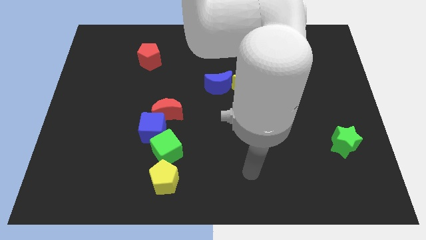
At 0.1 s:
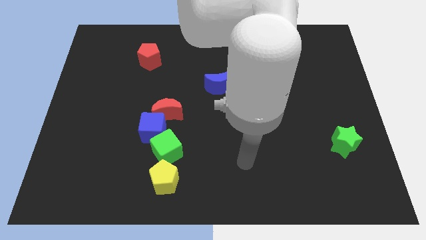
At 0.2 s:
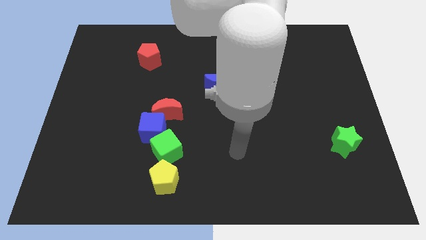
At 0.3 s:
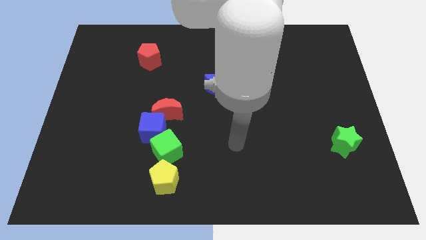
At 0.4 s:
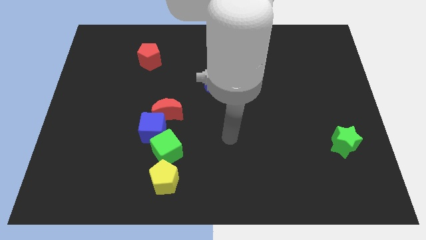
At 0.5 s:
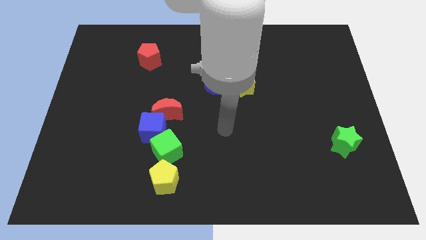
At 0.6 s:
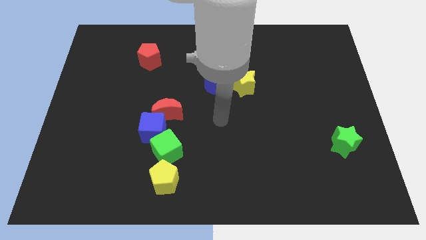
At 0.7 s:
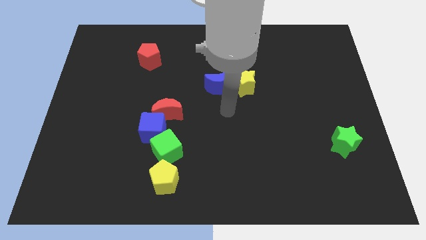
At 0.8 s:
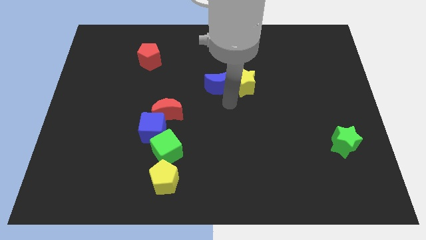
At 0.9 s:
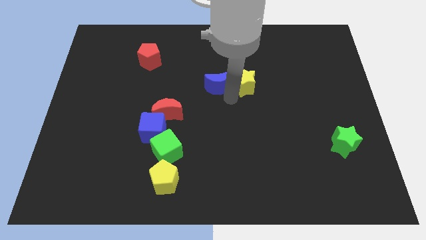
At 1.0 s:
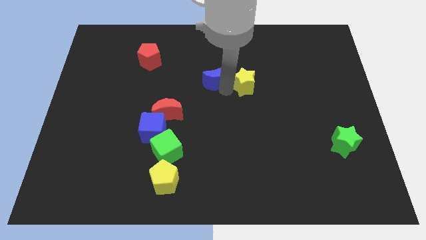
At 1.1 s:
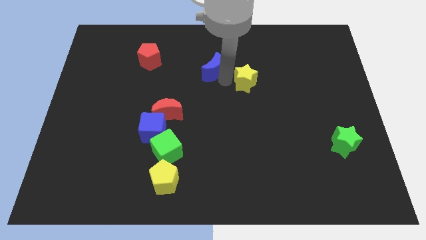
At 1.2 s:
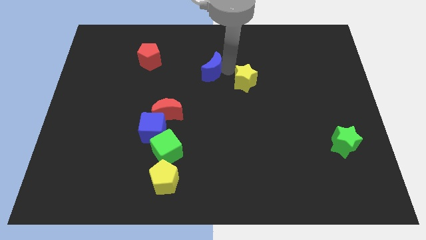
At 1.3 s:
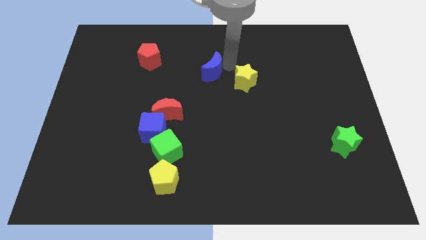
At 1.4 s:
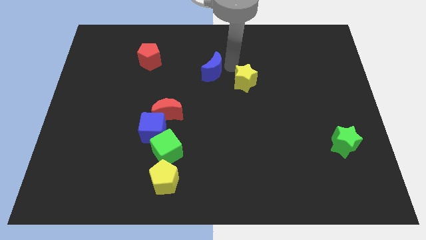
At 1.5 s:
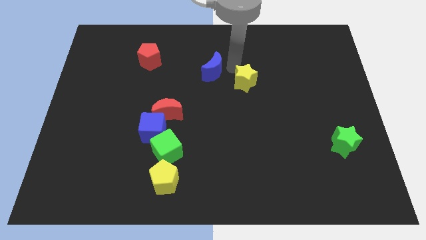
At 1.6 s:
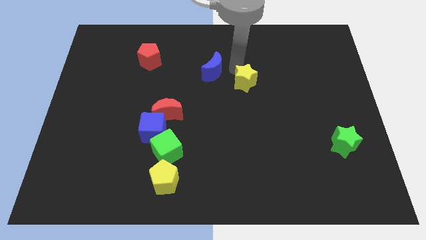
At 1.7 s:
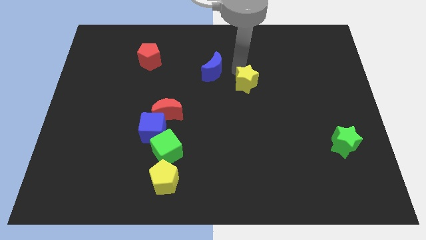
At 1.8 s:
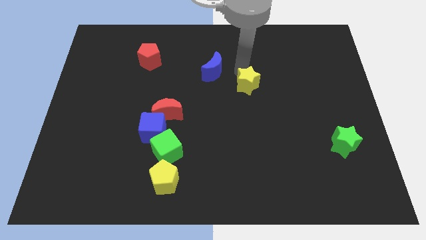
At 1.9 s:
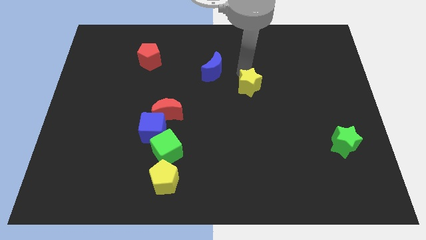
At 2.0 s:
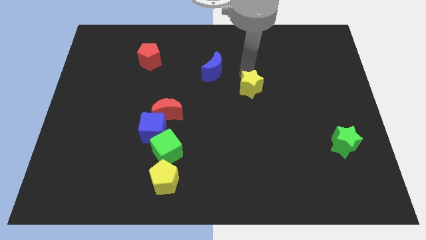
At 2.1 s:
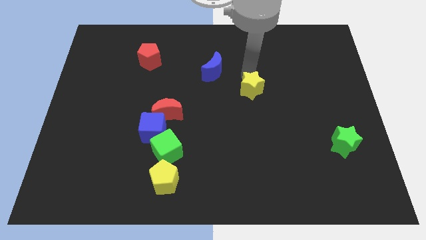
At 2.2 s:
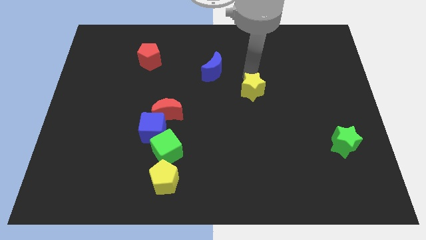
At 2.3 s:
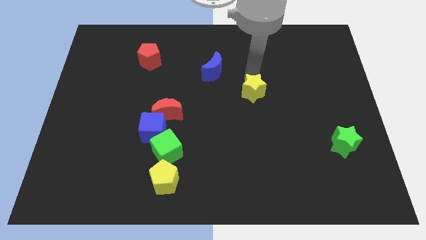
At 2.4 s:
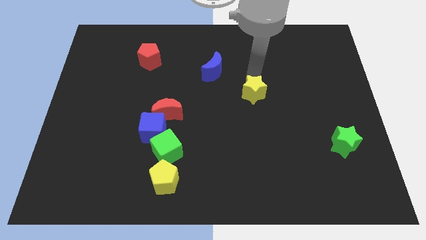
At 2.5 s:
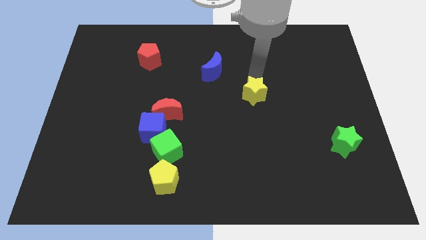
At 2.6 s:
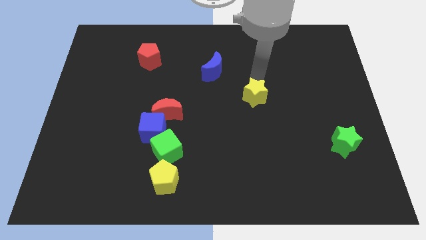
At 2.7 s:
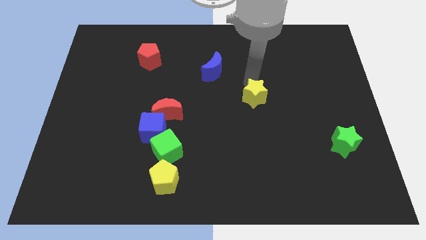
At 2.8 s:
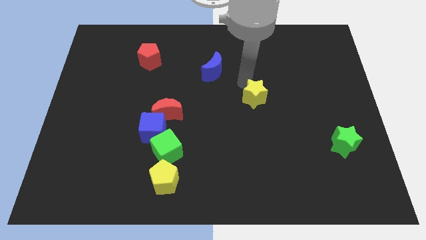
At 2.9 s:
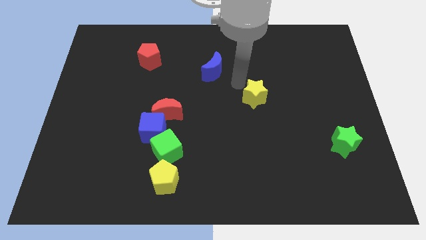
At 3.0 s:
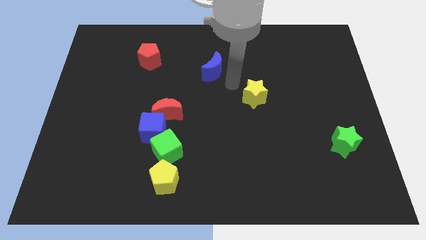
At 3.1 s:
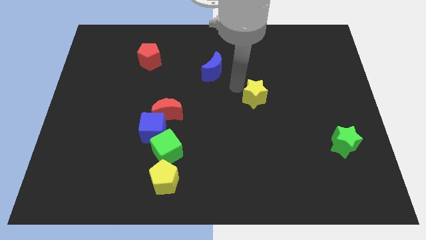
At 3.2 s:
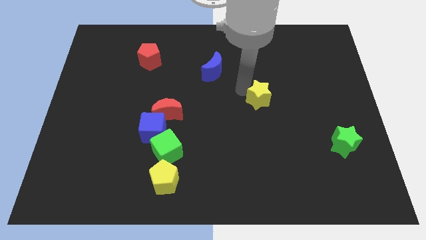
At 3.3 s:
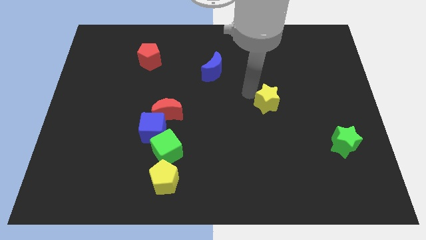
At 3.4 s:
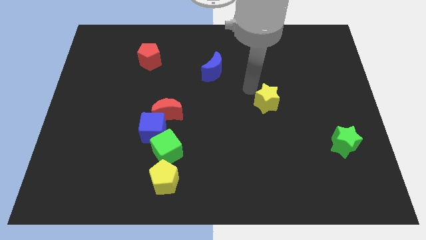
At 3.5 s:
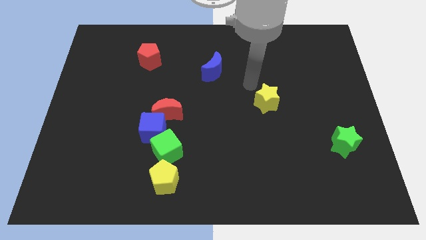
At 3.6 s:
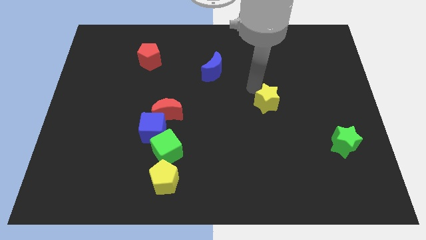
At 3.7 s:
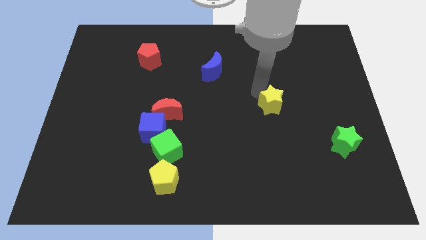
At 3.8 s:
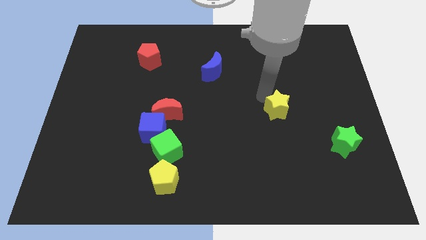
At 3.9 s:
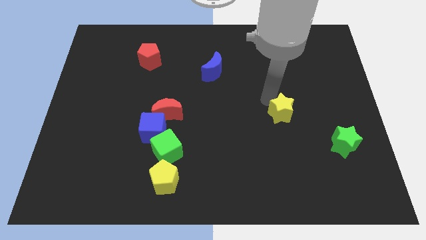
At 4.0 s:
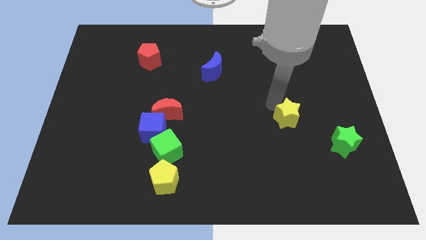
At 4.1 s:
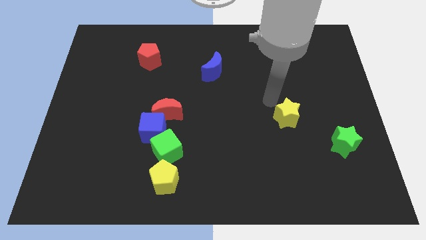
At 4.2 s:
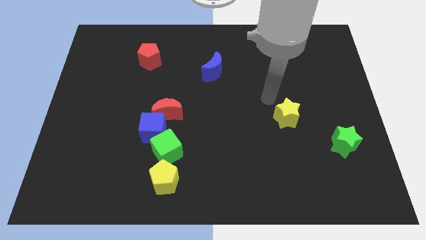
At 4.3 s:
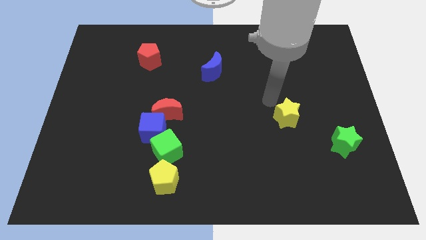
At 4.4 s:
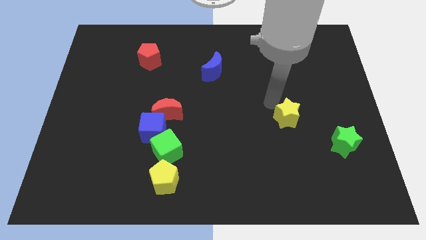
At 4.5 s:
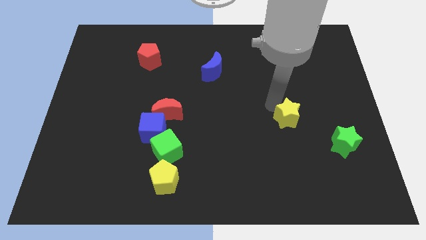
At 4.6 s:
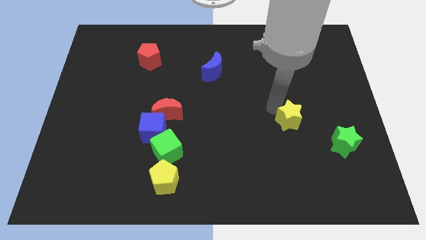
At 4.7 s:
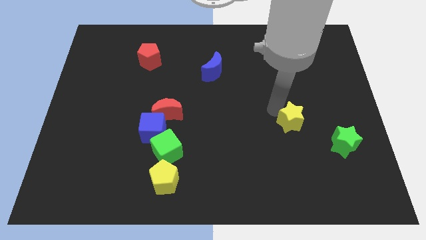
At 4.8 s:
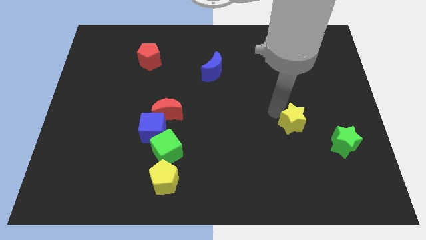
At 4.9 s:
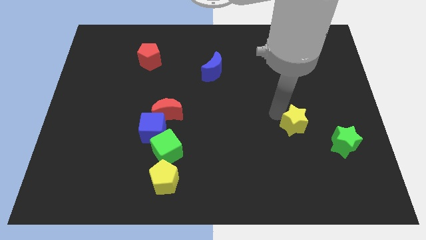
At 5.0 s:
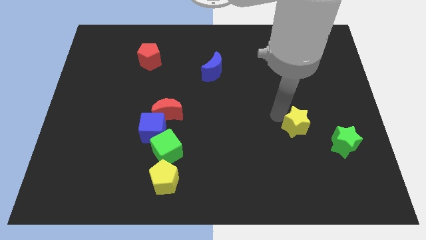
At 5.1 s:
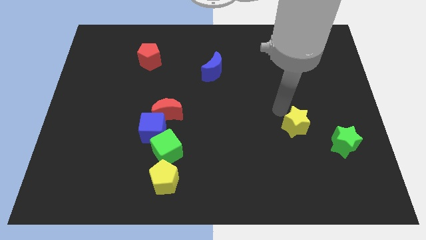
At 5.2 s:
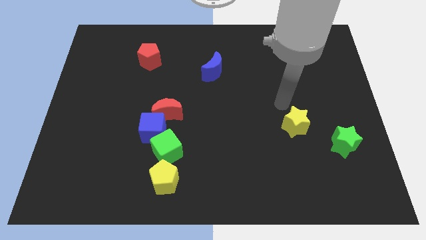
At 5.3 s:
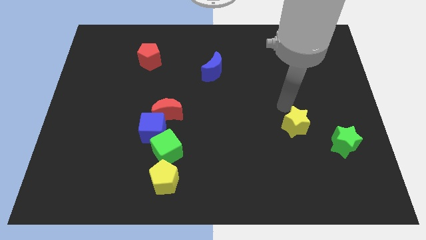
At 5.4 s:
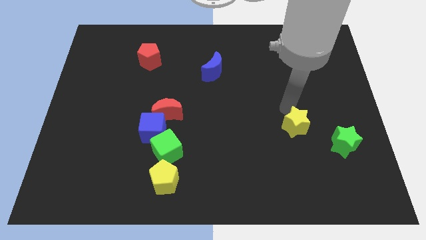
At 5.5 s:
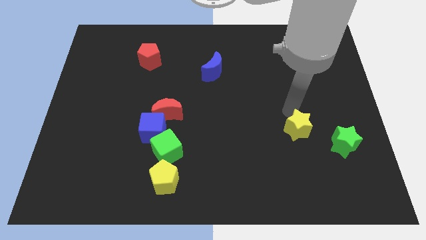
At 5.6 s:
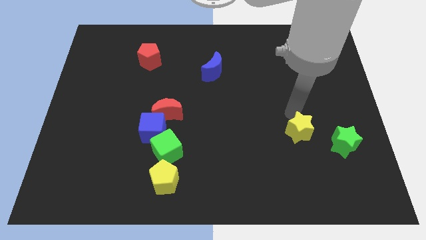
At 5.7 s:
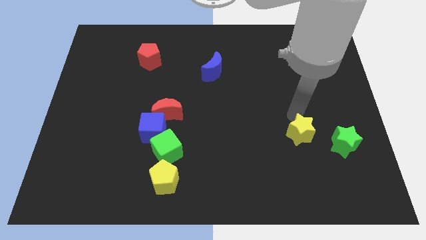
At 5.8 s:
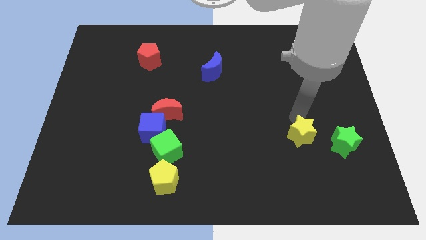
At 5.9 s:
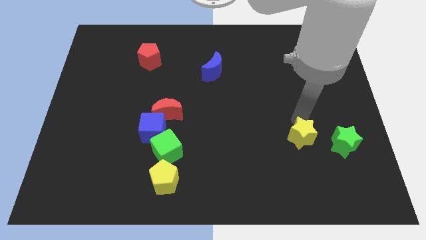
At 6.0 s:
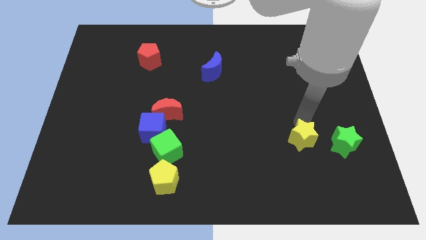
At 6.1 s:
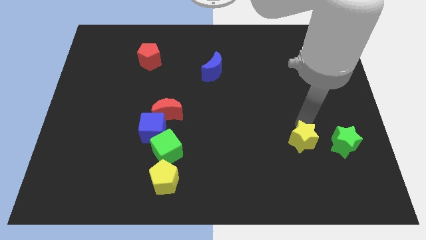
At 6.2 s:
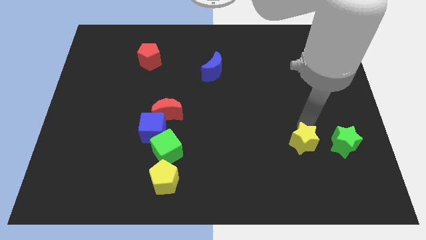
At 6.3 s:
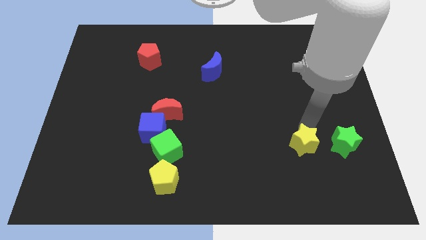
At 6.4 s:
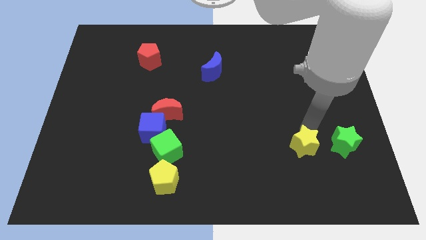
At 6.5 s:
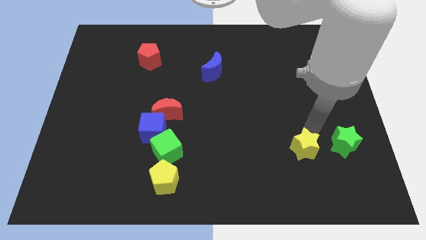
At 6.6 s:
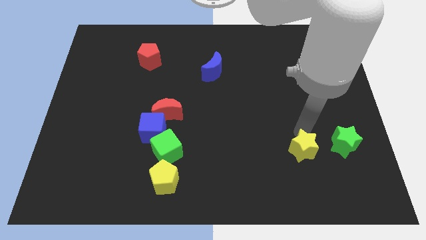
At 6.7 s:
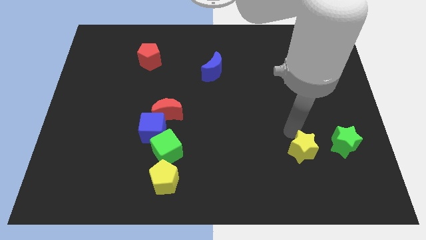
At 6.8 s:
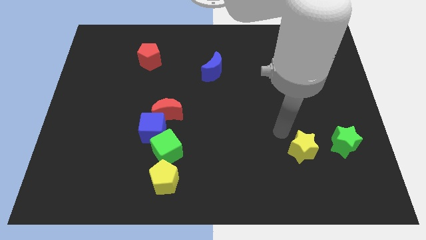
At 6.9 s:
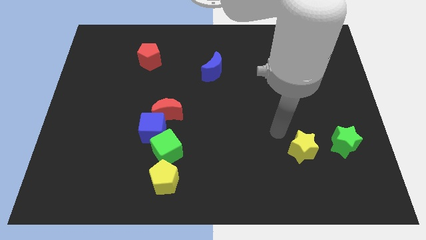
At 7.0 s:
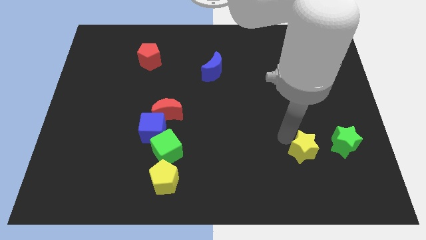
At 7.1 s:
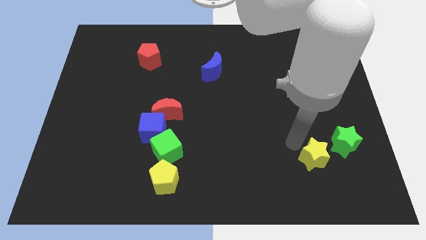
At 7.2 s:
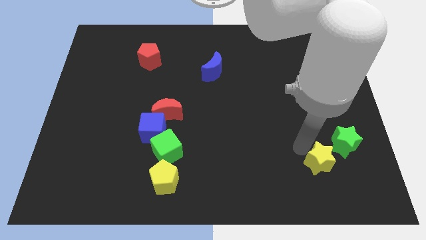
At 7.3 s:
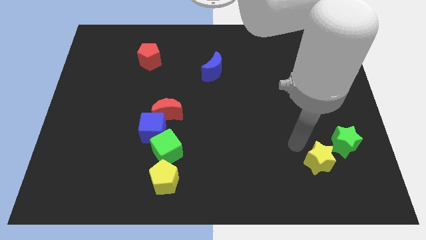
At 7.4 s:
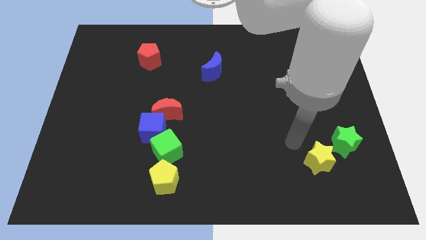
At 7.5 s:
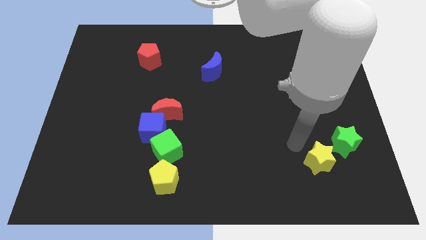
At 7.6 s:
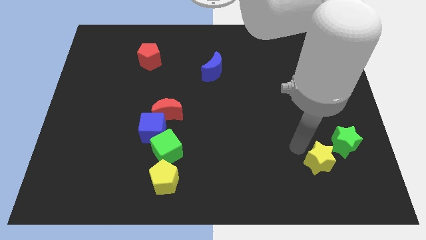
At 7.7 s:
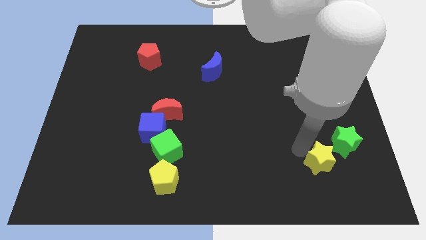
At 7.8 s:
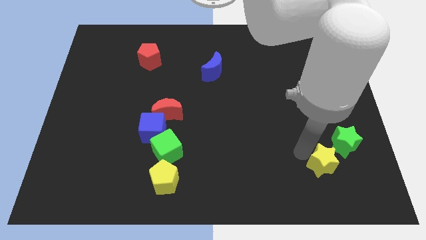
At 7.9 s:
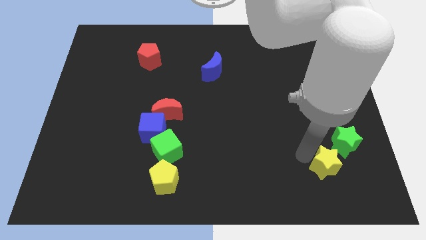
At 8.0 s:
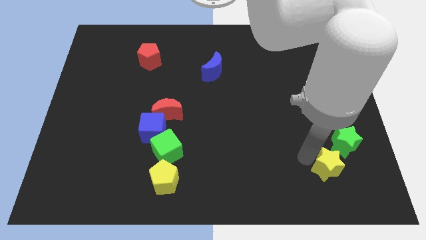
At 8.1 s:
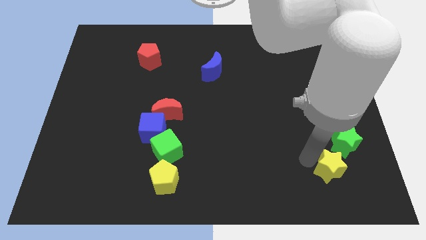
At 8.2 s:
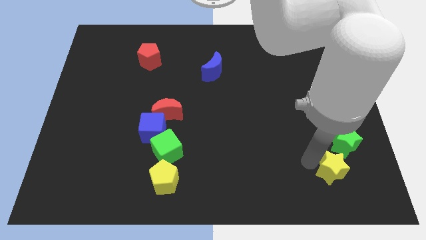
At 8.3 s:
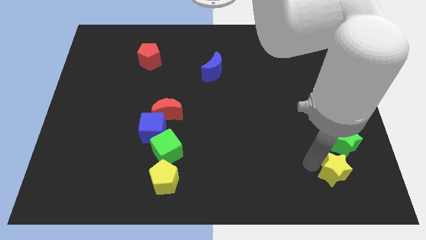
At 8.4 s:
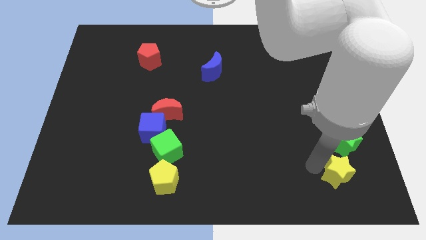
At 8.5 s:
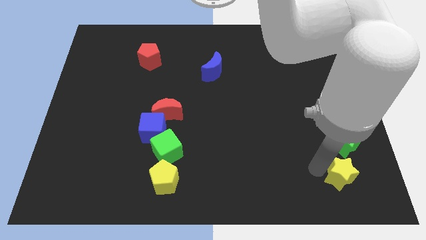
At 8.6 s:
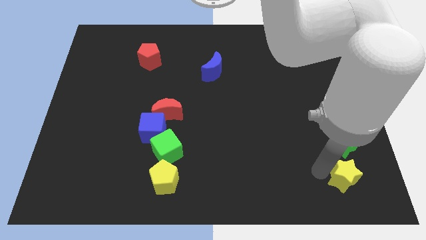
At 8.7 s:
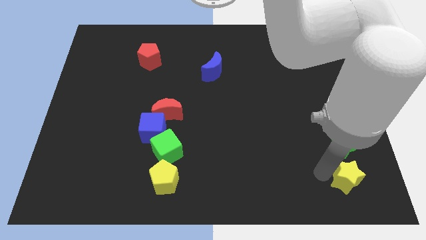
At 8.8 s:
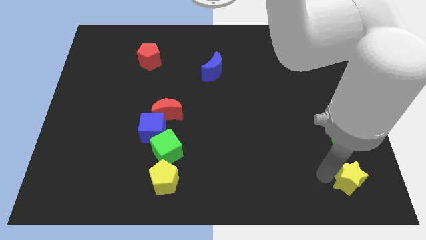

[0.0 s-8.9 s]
slide the yellow star to the bottom right
